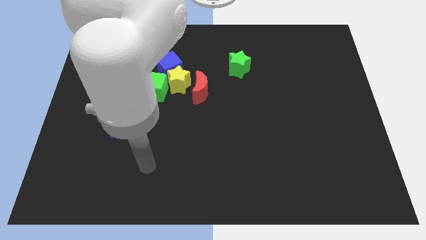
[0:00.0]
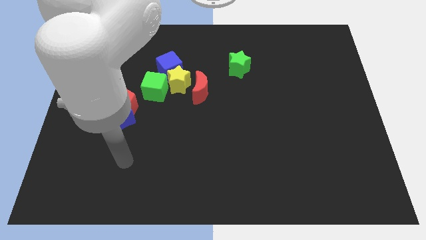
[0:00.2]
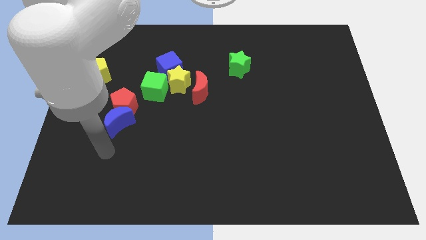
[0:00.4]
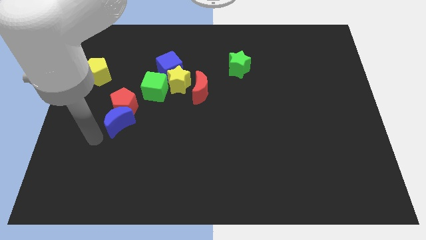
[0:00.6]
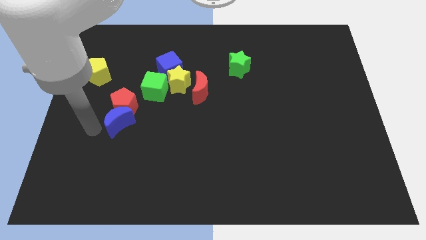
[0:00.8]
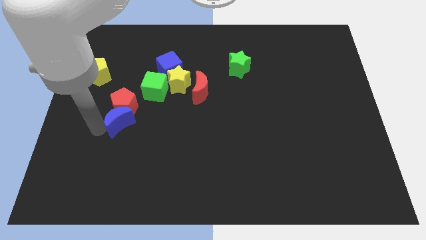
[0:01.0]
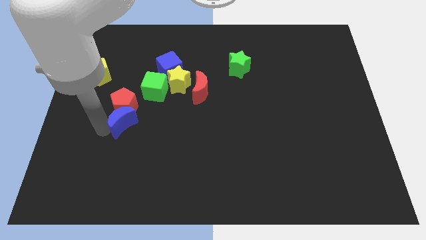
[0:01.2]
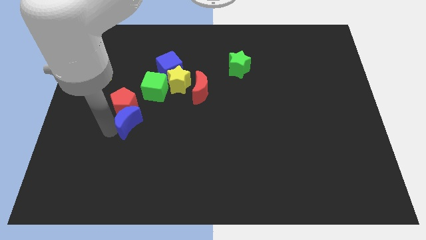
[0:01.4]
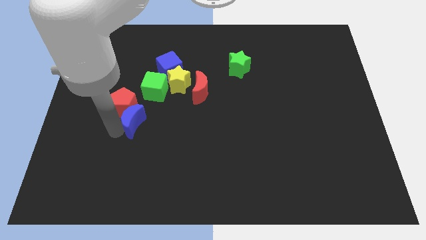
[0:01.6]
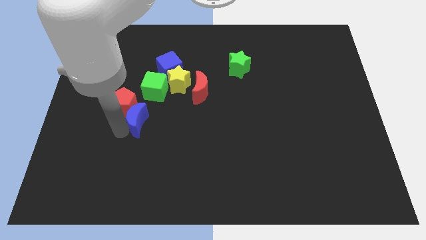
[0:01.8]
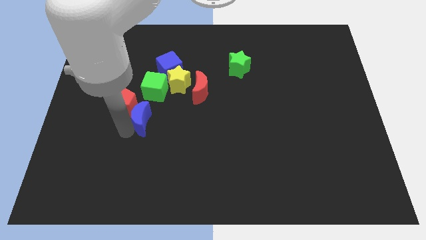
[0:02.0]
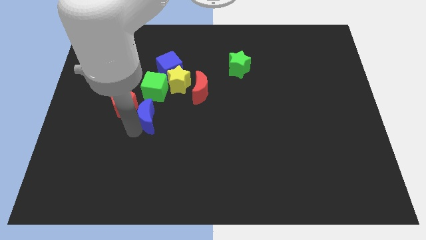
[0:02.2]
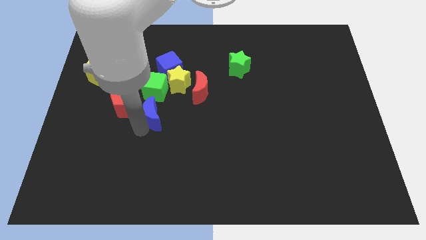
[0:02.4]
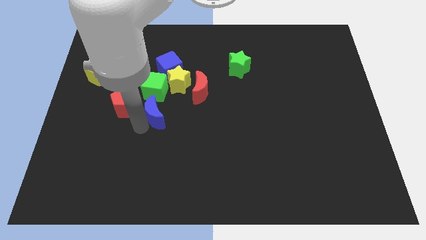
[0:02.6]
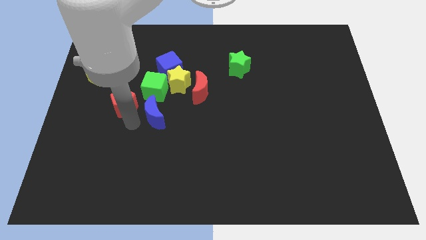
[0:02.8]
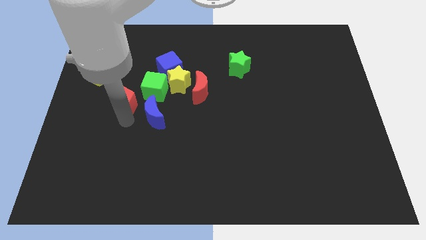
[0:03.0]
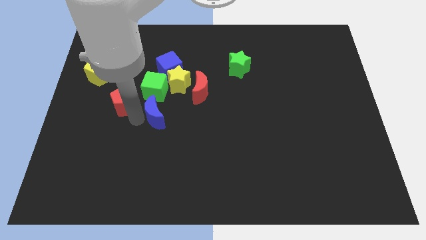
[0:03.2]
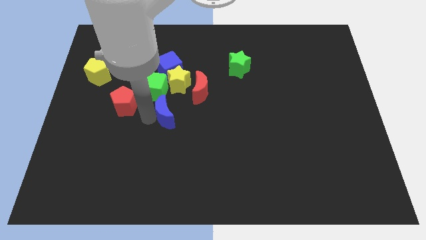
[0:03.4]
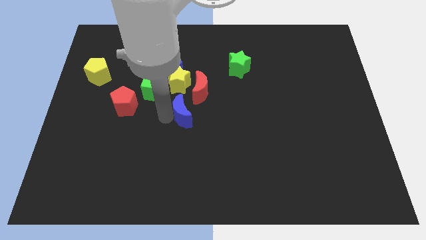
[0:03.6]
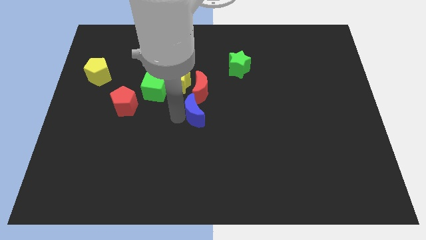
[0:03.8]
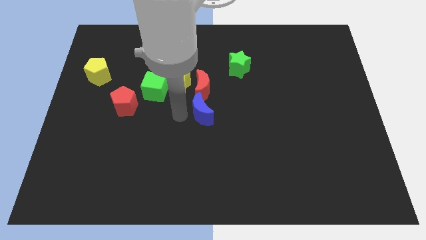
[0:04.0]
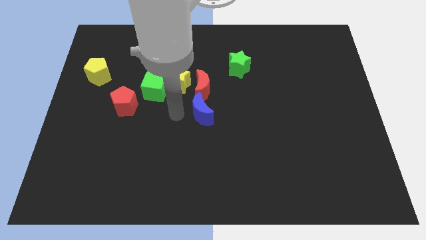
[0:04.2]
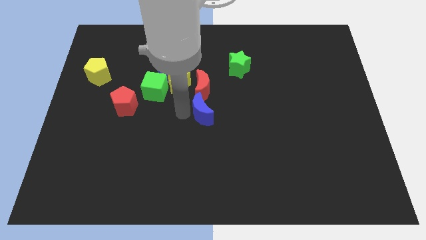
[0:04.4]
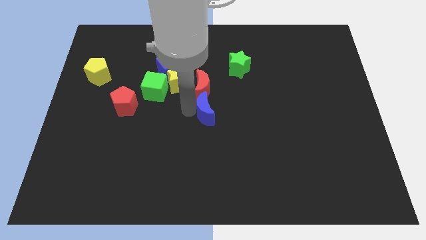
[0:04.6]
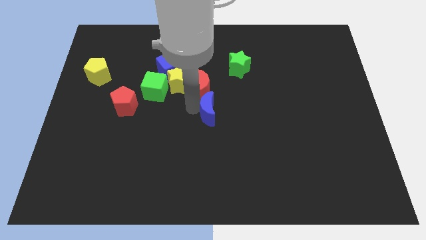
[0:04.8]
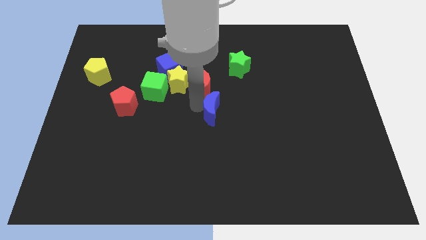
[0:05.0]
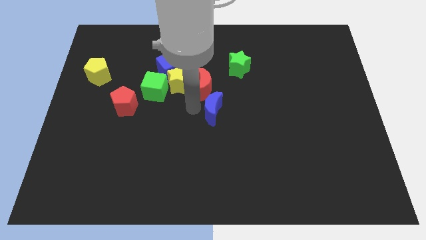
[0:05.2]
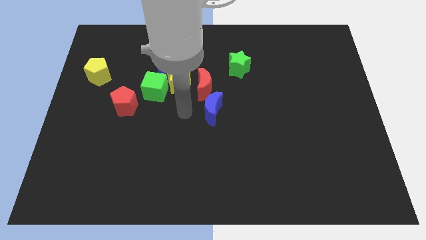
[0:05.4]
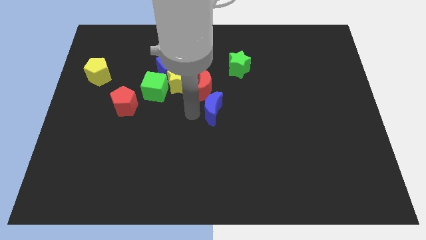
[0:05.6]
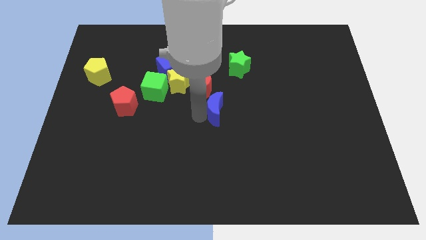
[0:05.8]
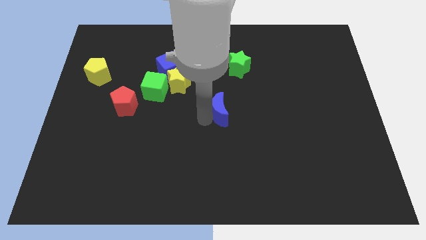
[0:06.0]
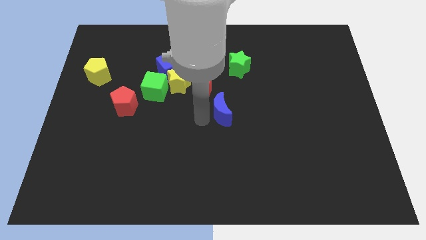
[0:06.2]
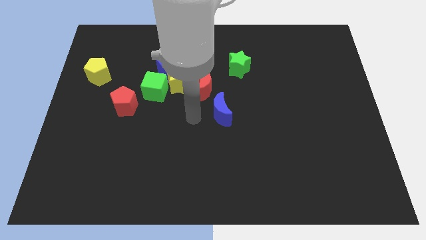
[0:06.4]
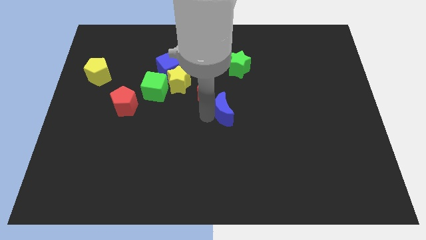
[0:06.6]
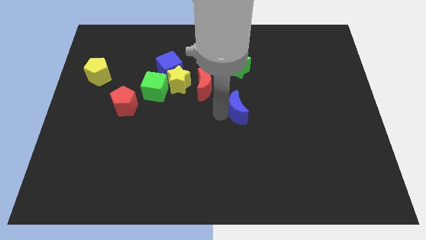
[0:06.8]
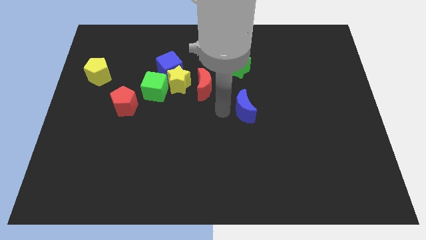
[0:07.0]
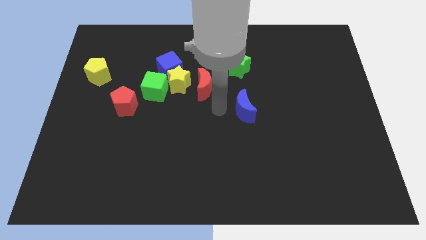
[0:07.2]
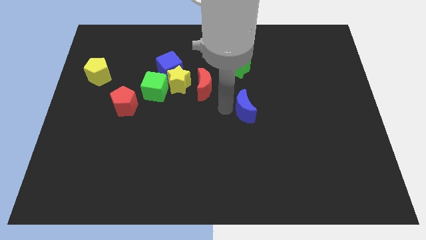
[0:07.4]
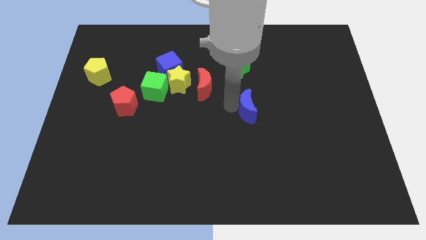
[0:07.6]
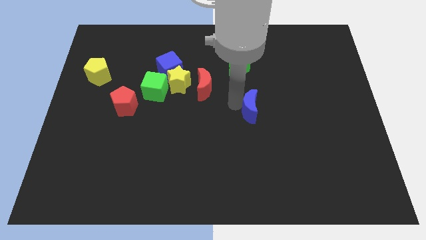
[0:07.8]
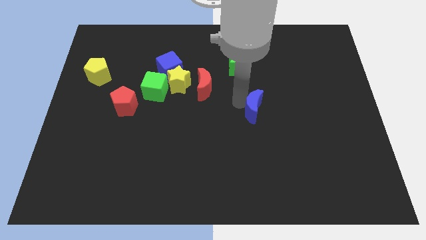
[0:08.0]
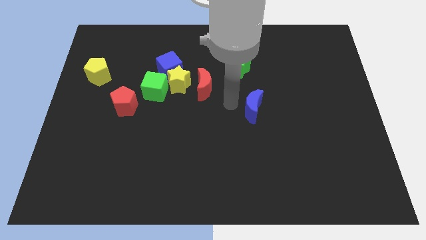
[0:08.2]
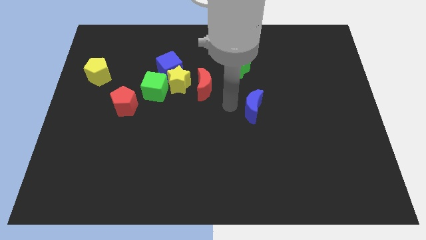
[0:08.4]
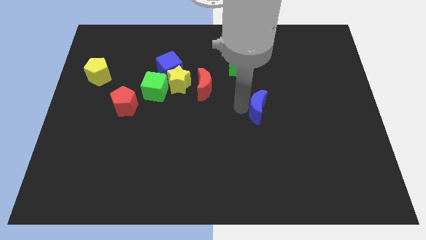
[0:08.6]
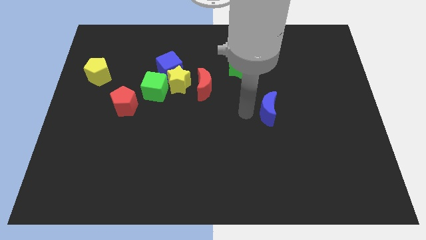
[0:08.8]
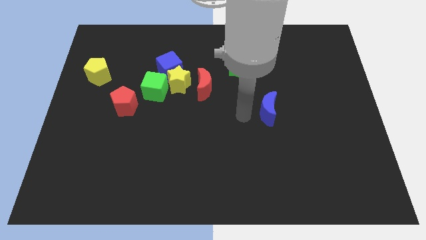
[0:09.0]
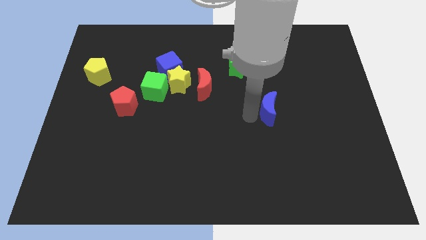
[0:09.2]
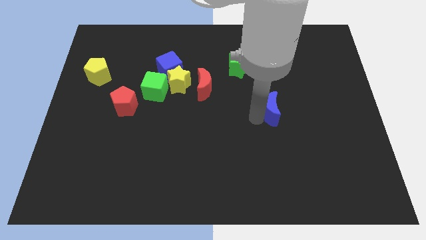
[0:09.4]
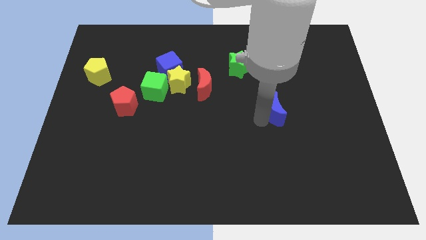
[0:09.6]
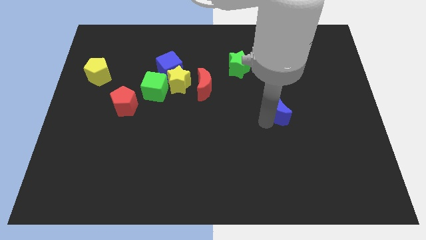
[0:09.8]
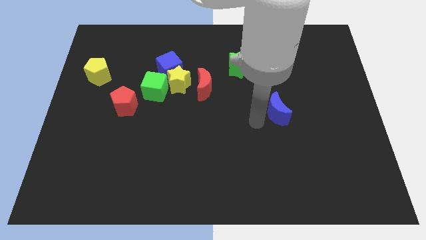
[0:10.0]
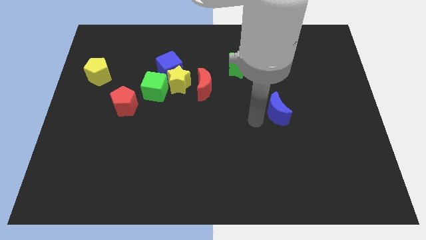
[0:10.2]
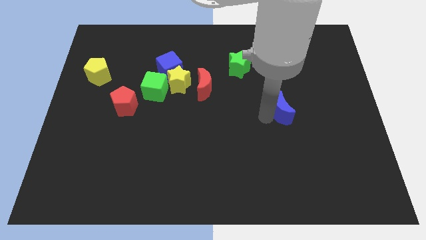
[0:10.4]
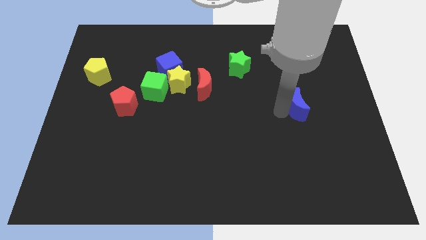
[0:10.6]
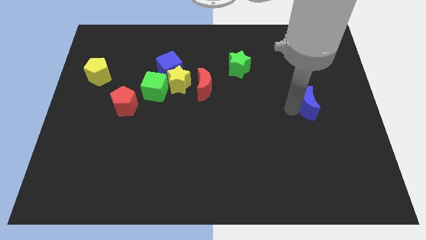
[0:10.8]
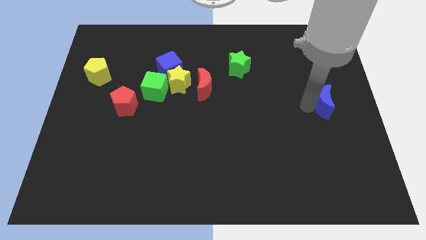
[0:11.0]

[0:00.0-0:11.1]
move the blue moon to the right side of the board

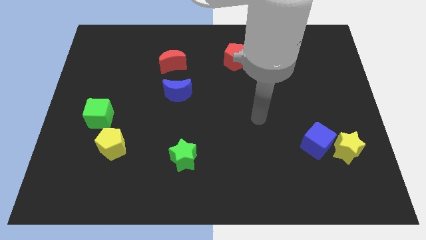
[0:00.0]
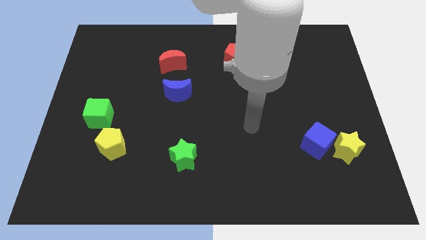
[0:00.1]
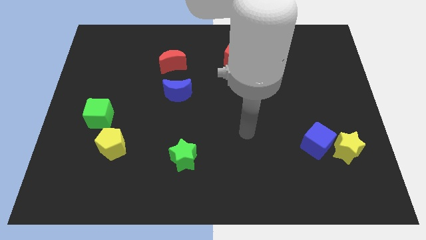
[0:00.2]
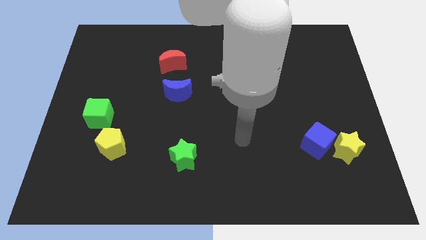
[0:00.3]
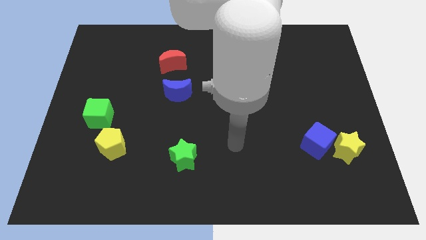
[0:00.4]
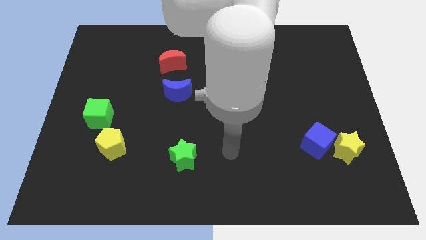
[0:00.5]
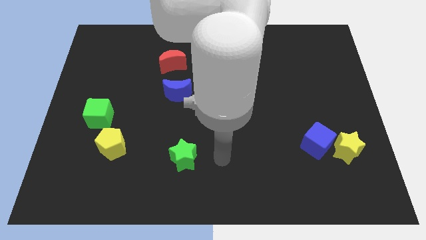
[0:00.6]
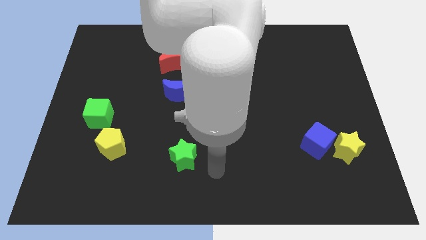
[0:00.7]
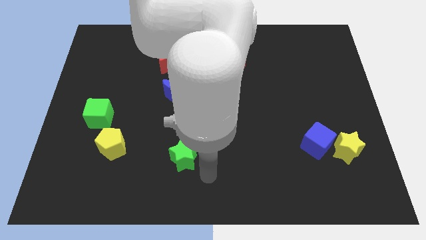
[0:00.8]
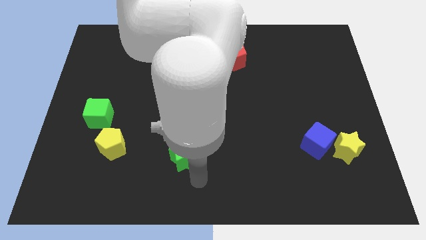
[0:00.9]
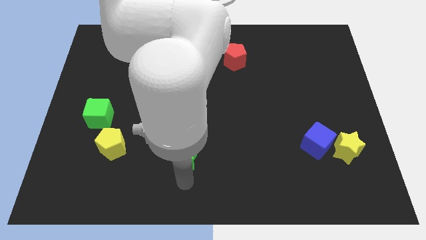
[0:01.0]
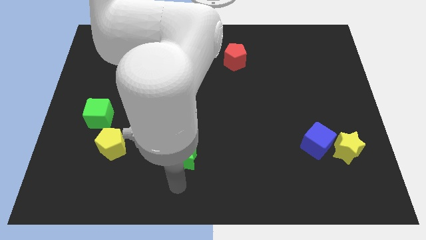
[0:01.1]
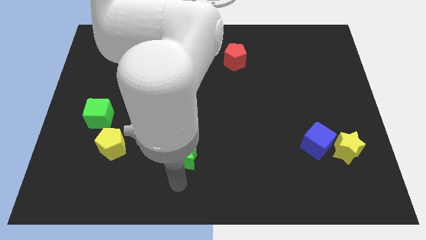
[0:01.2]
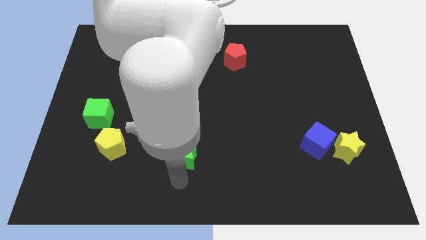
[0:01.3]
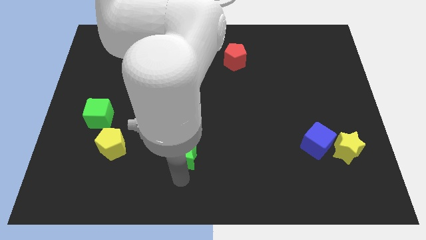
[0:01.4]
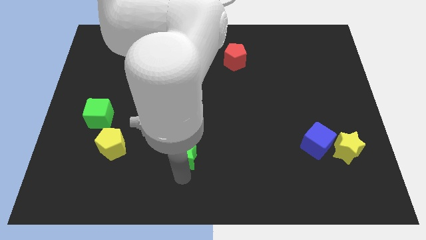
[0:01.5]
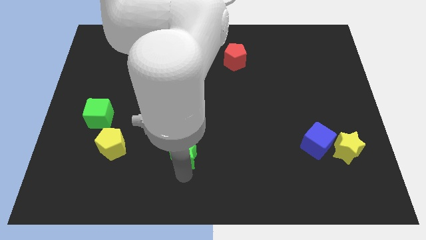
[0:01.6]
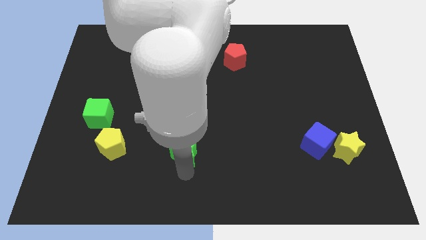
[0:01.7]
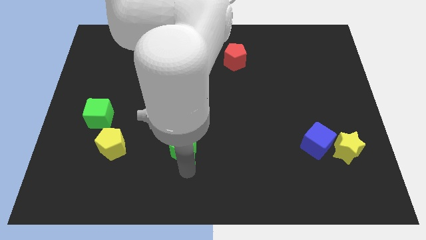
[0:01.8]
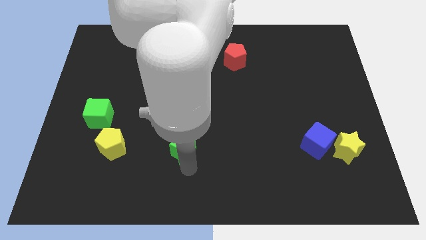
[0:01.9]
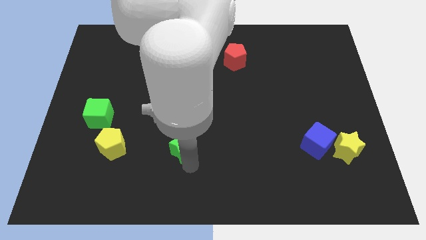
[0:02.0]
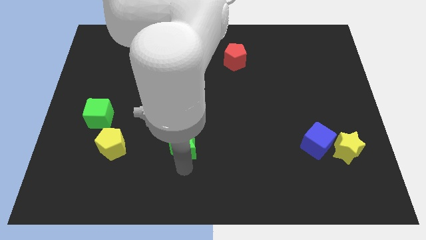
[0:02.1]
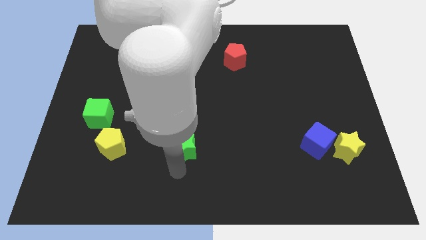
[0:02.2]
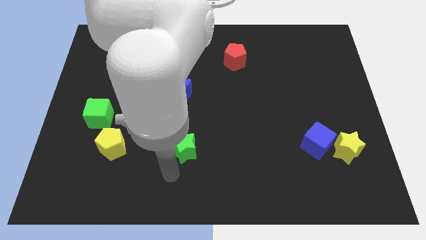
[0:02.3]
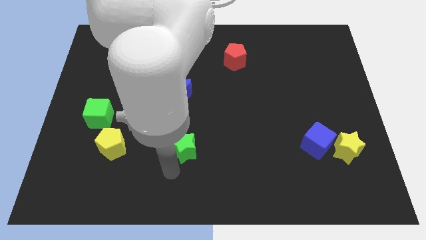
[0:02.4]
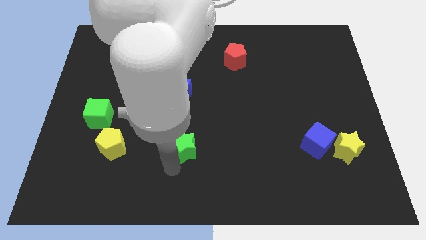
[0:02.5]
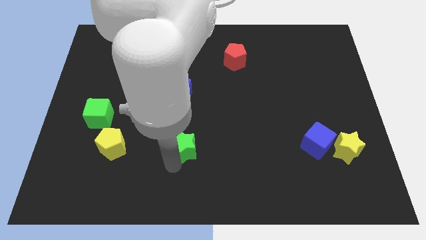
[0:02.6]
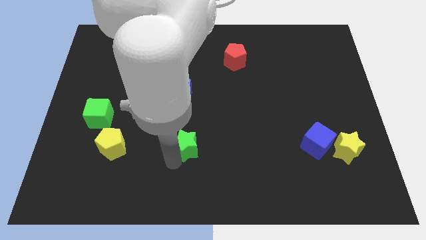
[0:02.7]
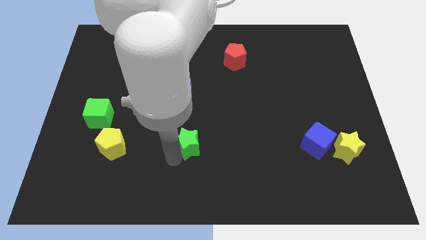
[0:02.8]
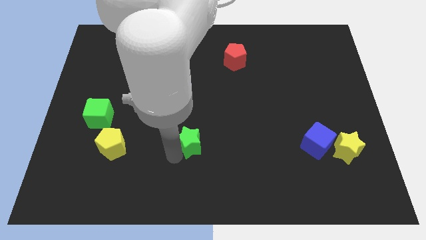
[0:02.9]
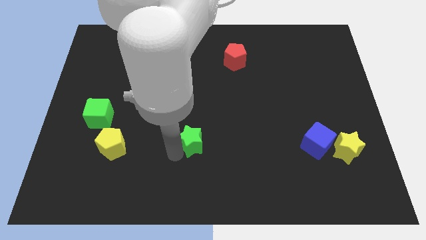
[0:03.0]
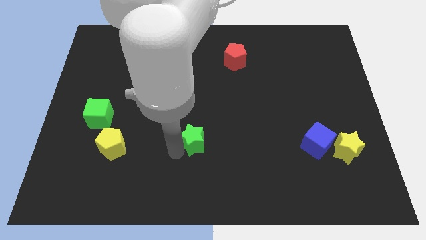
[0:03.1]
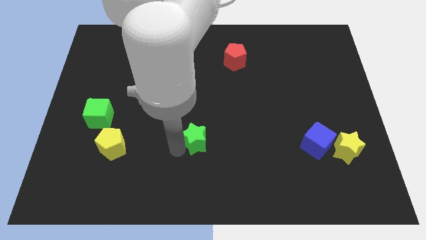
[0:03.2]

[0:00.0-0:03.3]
push the green star to the middle of the board
